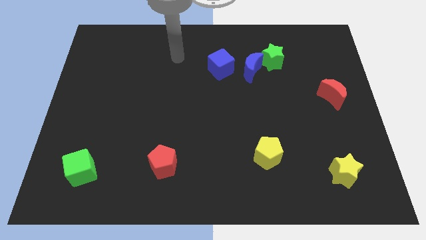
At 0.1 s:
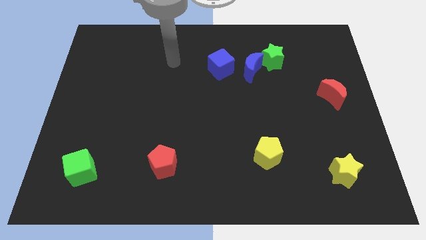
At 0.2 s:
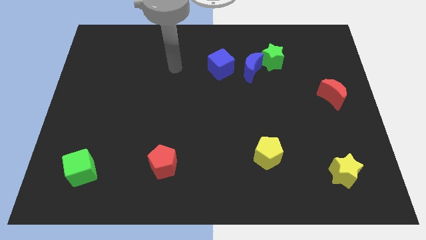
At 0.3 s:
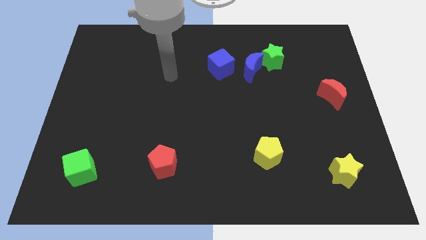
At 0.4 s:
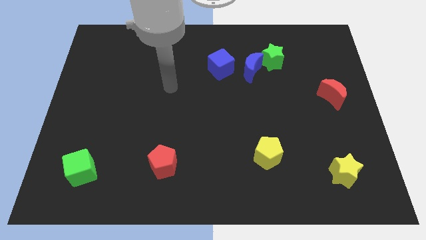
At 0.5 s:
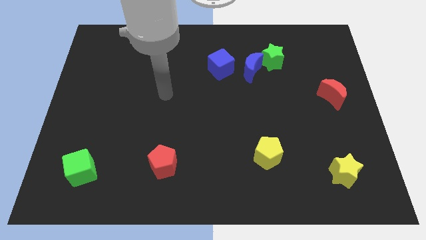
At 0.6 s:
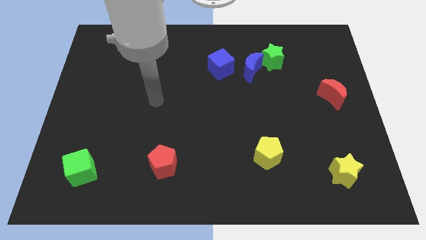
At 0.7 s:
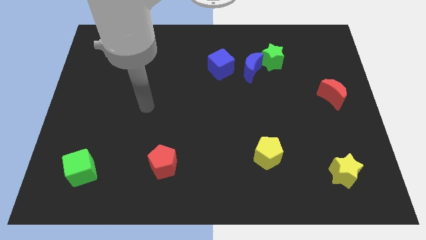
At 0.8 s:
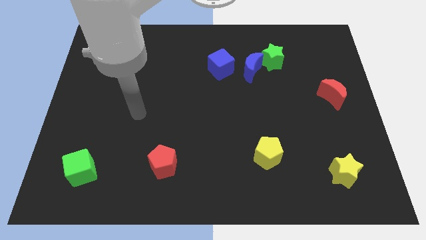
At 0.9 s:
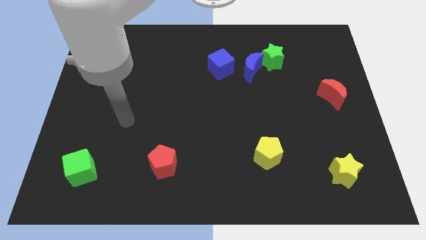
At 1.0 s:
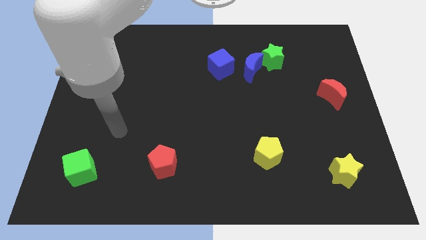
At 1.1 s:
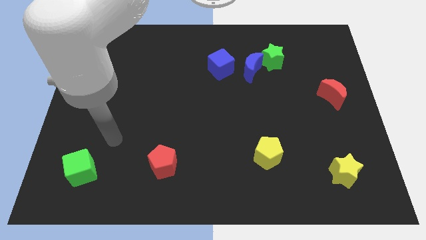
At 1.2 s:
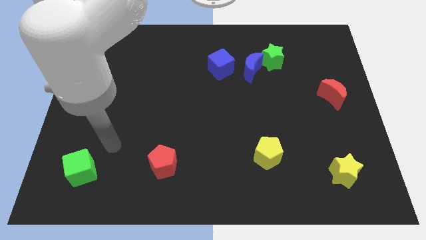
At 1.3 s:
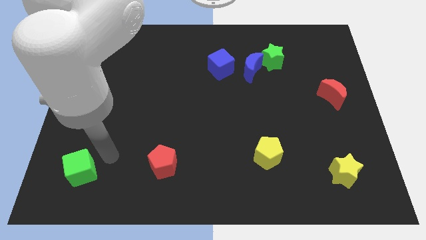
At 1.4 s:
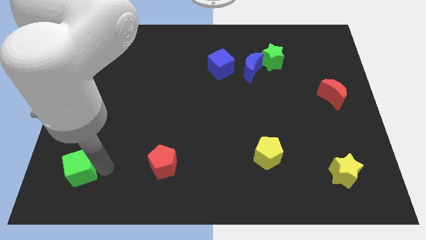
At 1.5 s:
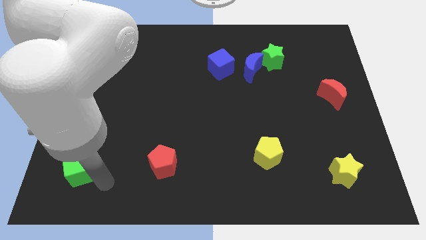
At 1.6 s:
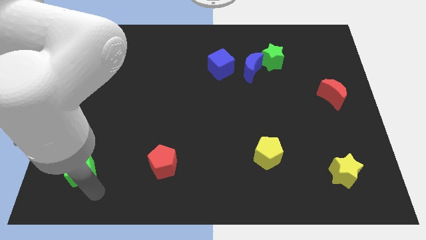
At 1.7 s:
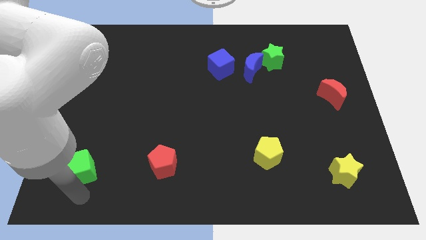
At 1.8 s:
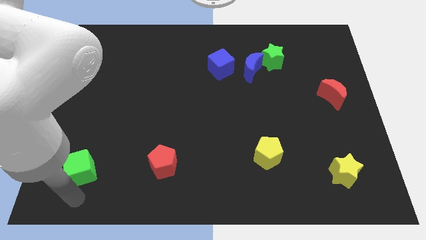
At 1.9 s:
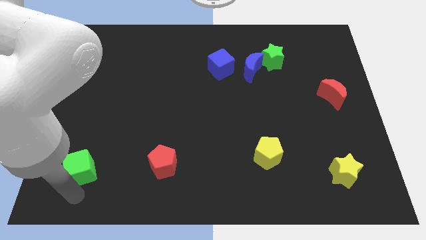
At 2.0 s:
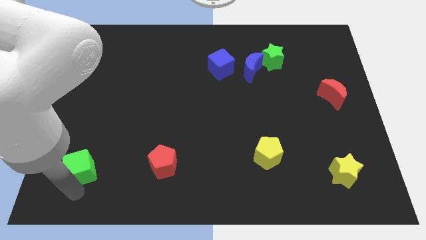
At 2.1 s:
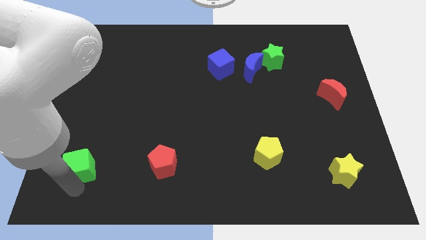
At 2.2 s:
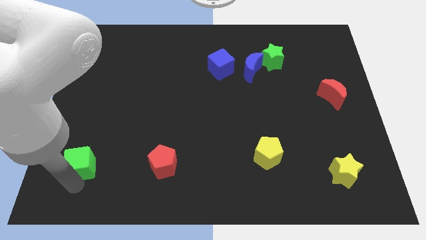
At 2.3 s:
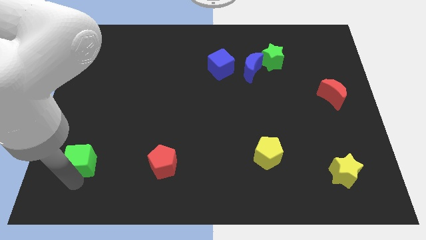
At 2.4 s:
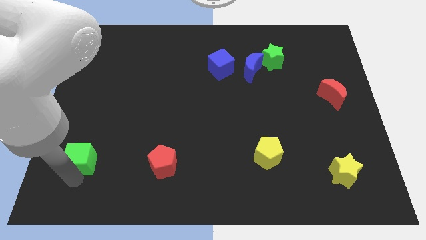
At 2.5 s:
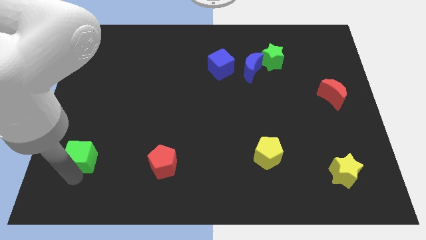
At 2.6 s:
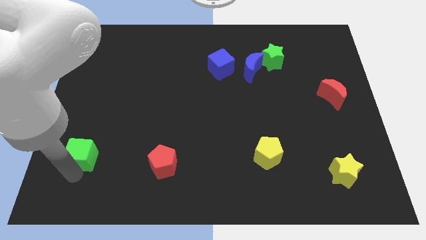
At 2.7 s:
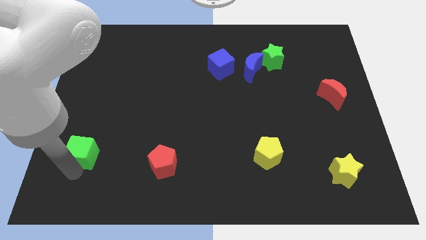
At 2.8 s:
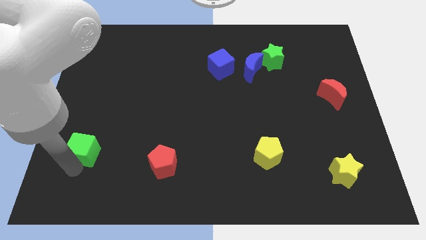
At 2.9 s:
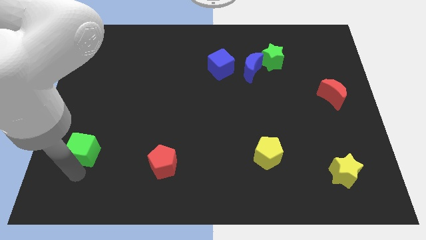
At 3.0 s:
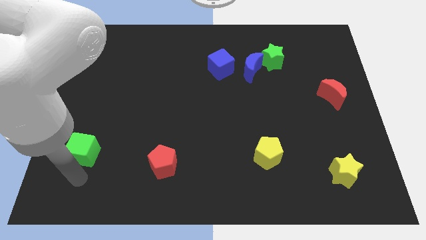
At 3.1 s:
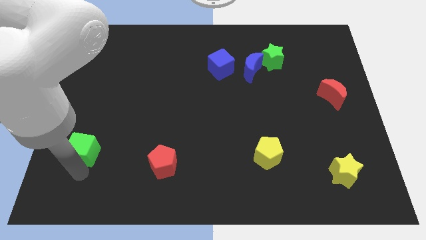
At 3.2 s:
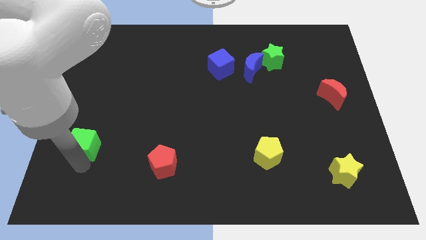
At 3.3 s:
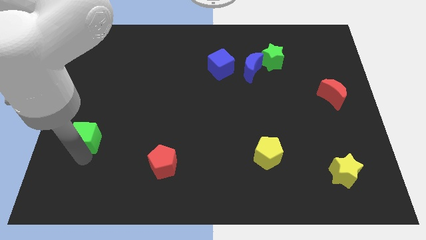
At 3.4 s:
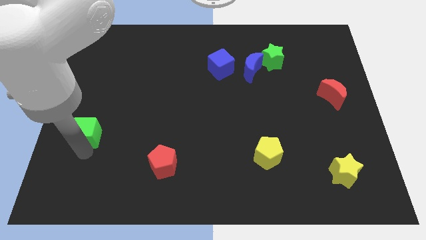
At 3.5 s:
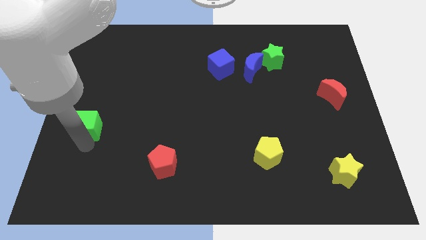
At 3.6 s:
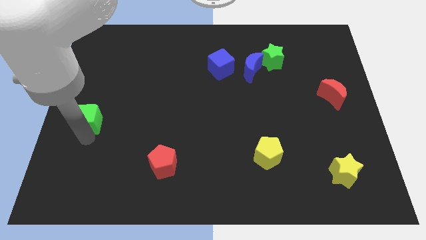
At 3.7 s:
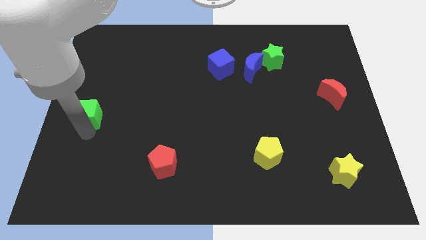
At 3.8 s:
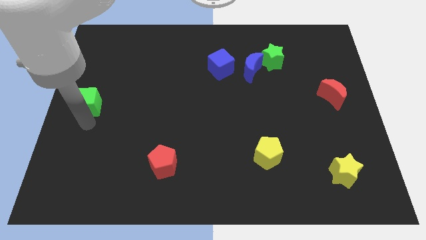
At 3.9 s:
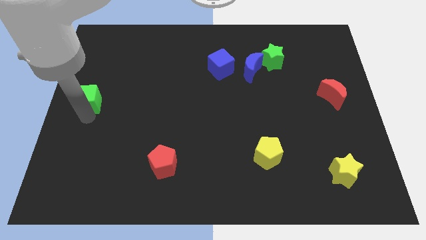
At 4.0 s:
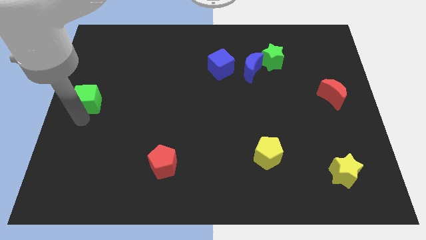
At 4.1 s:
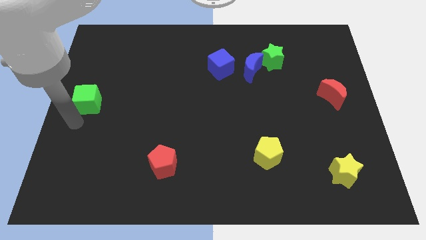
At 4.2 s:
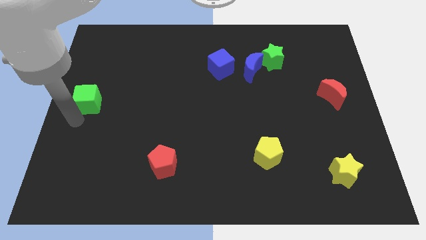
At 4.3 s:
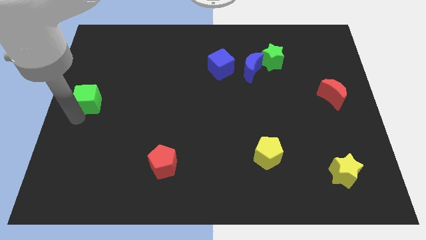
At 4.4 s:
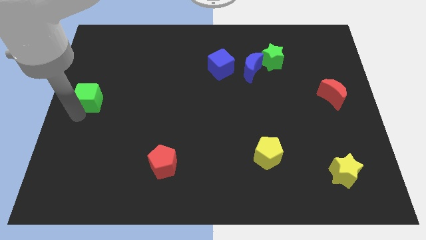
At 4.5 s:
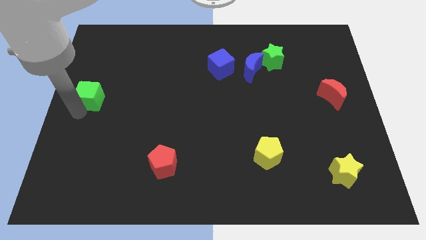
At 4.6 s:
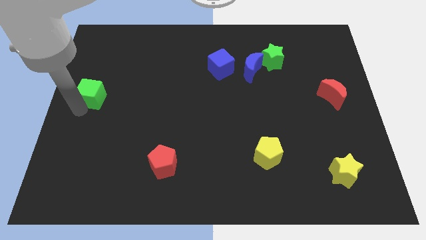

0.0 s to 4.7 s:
push the green cube upwards

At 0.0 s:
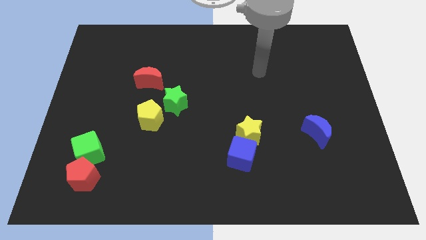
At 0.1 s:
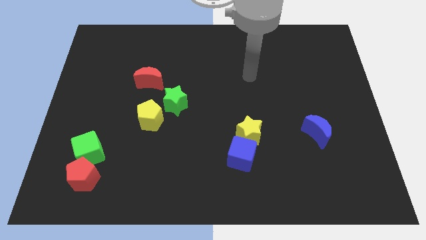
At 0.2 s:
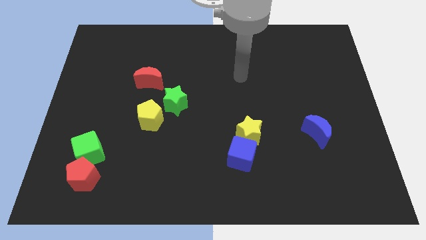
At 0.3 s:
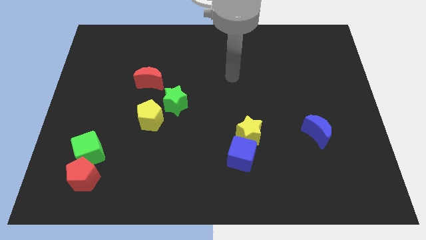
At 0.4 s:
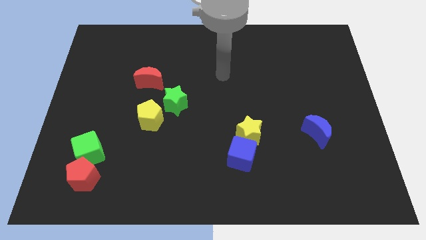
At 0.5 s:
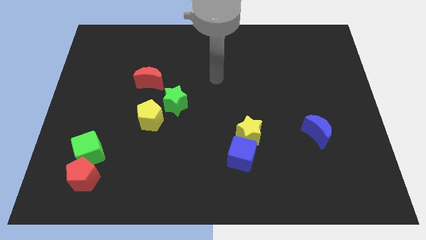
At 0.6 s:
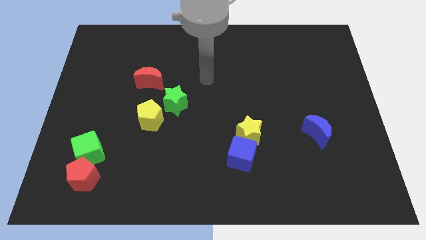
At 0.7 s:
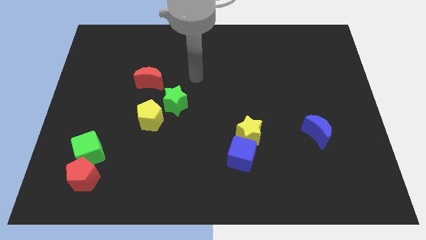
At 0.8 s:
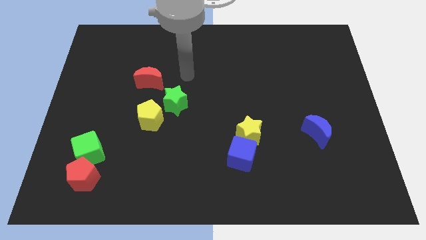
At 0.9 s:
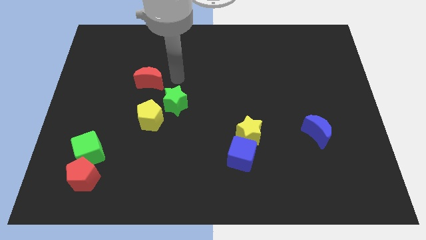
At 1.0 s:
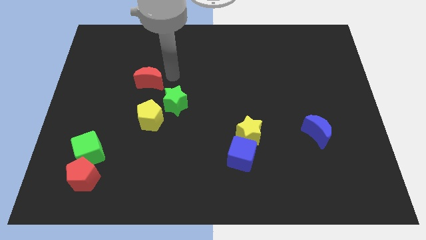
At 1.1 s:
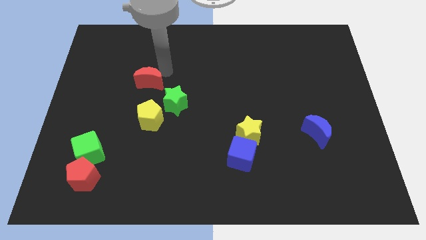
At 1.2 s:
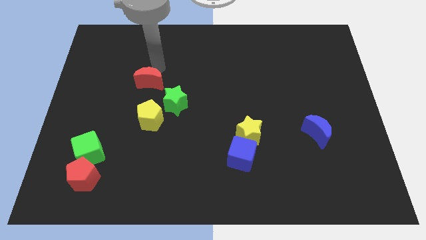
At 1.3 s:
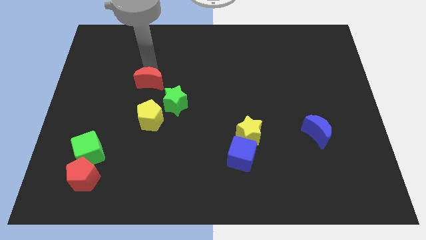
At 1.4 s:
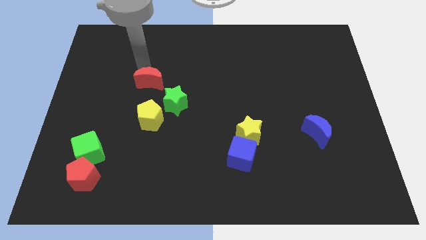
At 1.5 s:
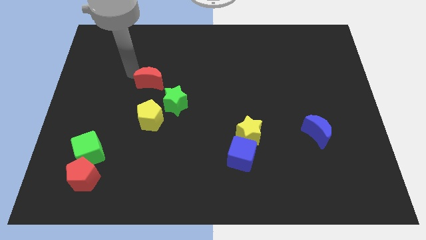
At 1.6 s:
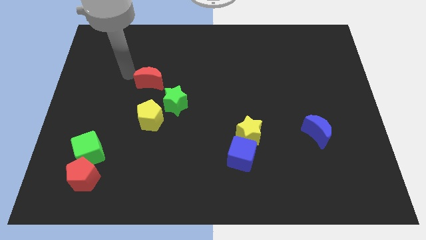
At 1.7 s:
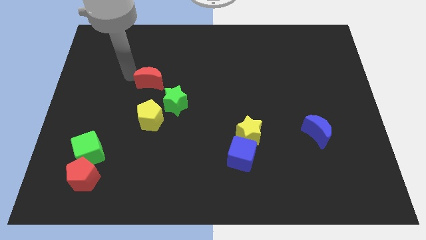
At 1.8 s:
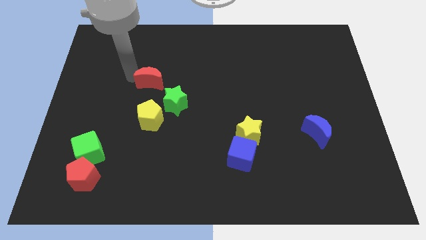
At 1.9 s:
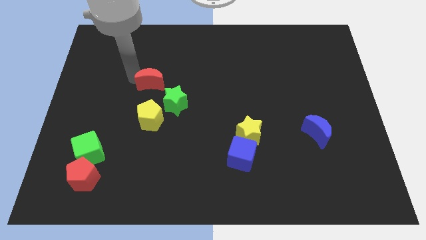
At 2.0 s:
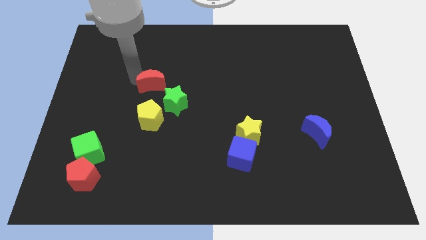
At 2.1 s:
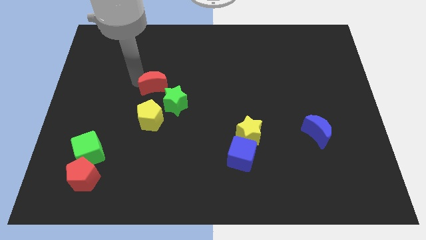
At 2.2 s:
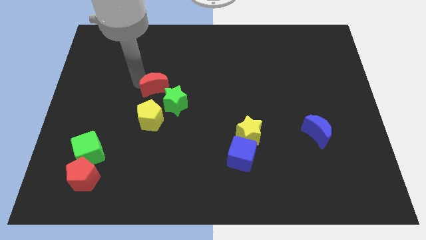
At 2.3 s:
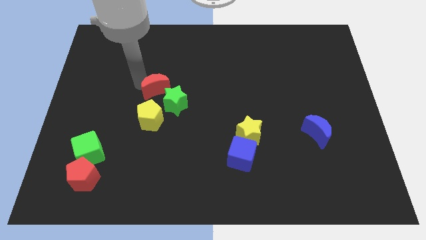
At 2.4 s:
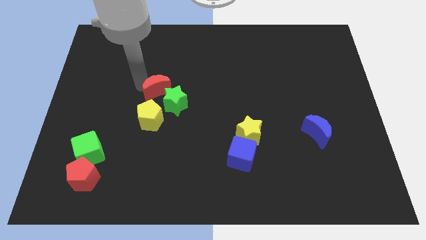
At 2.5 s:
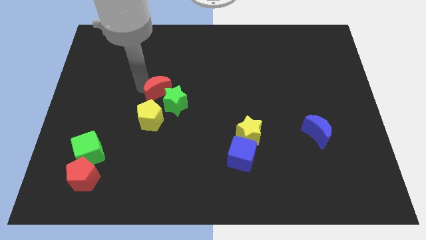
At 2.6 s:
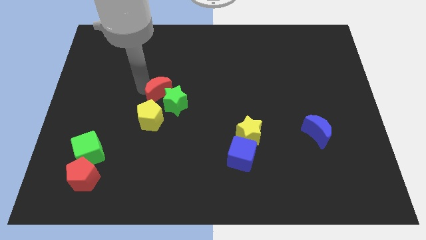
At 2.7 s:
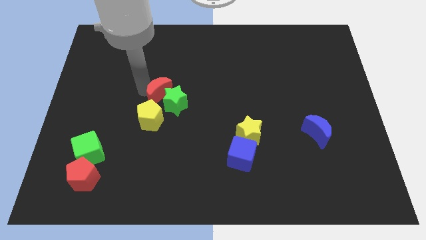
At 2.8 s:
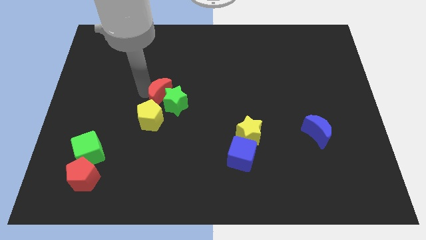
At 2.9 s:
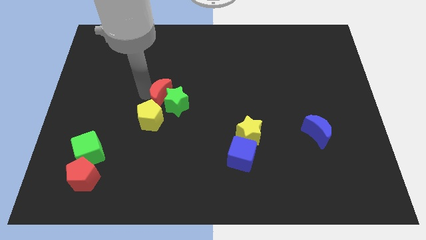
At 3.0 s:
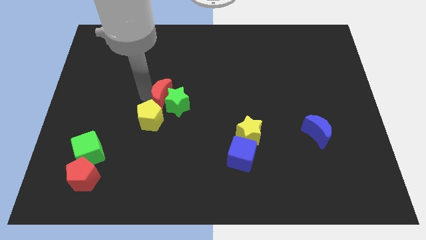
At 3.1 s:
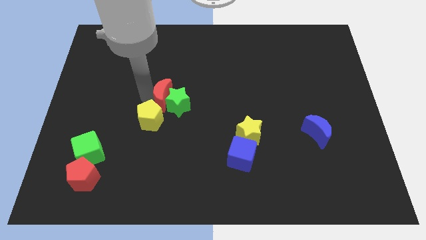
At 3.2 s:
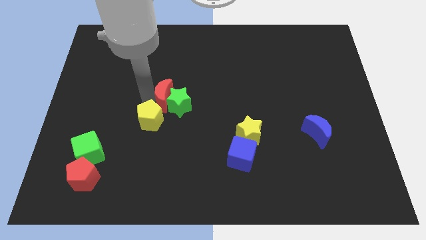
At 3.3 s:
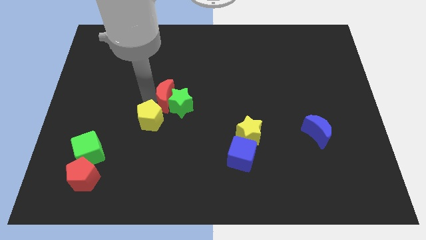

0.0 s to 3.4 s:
slide the red moon diagonally downwards and to the right slightly
